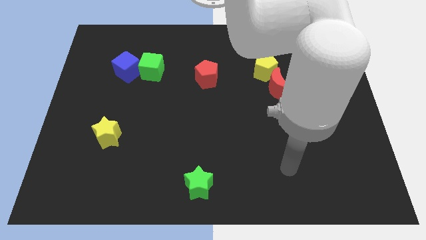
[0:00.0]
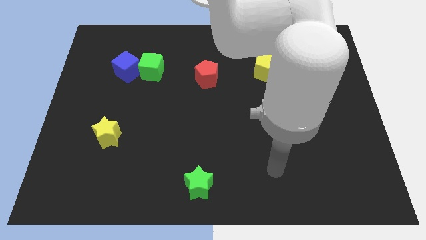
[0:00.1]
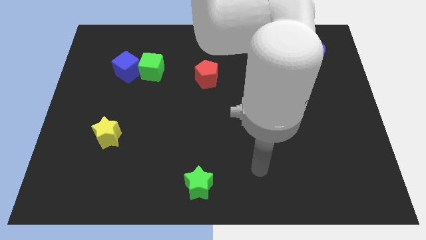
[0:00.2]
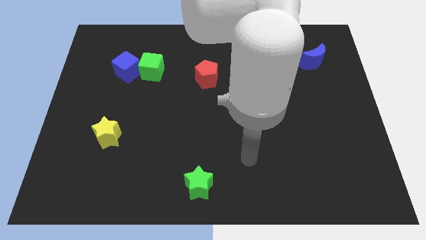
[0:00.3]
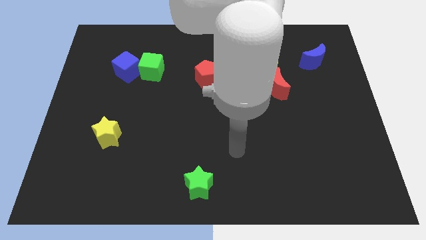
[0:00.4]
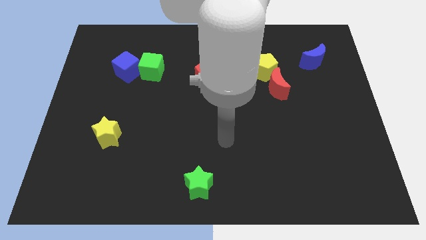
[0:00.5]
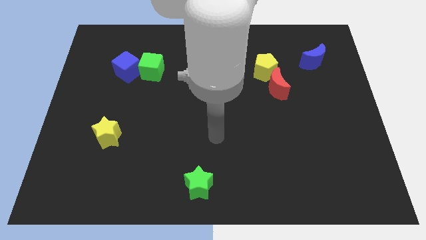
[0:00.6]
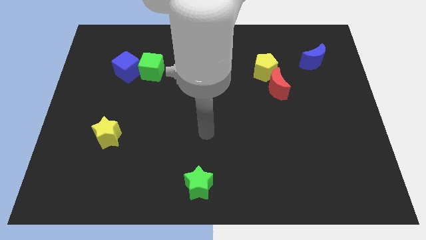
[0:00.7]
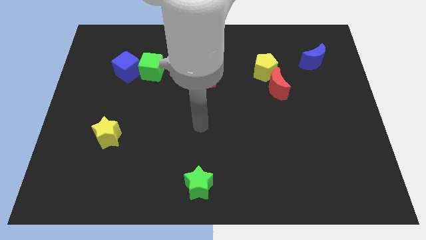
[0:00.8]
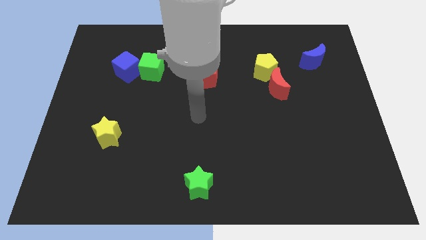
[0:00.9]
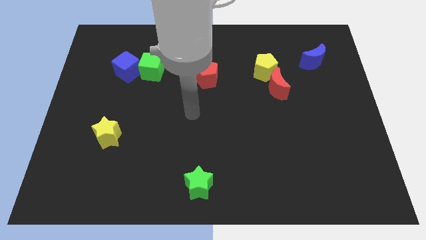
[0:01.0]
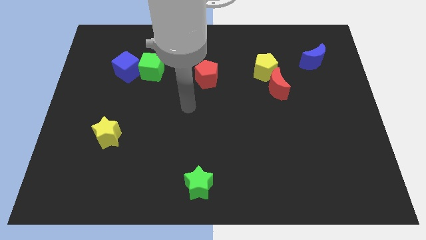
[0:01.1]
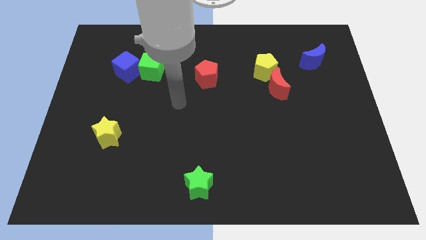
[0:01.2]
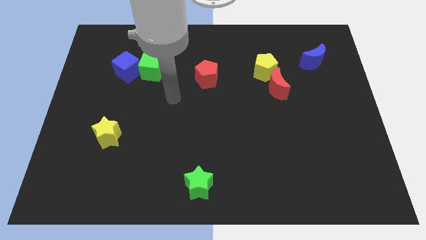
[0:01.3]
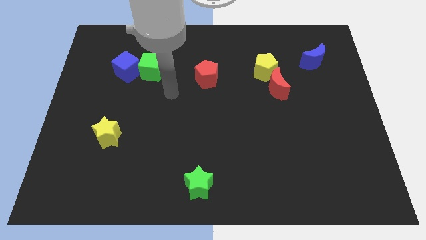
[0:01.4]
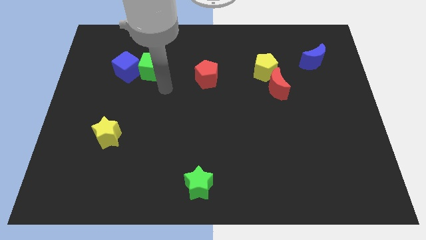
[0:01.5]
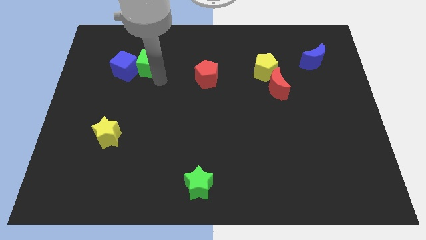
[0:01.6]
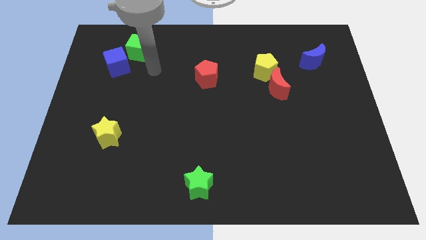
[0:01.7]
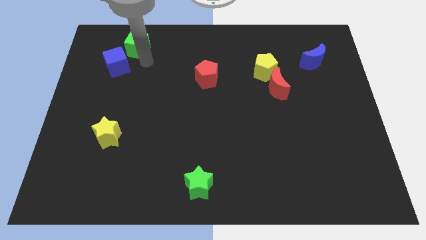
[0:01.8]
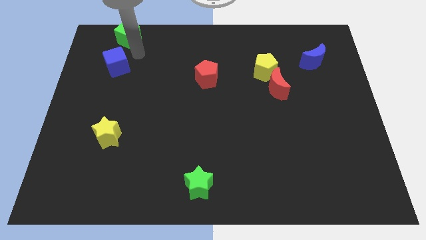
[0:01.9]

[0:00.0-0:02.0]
move the blue cube away from the green cube

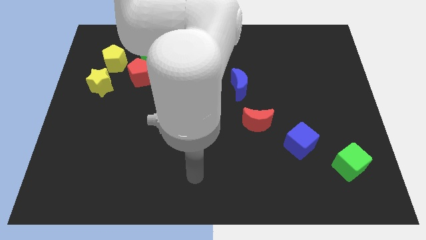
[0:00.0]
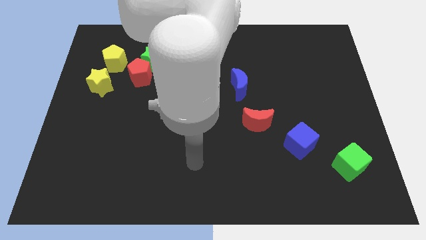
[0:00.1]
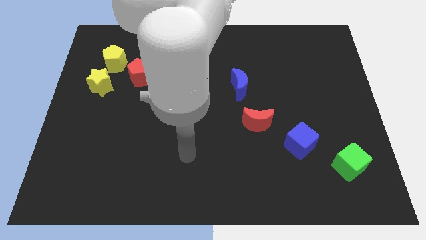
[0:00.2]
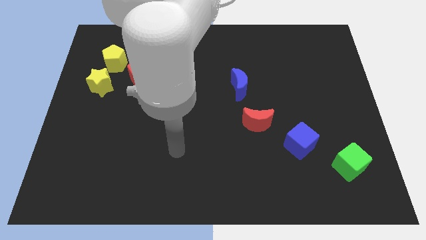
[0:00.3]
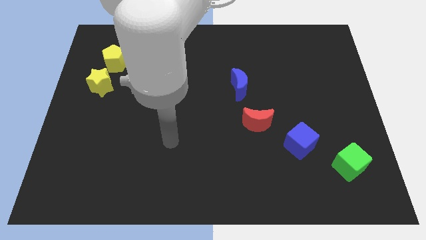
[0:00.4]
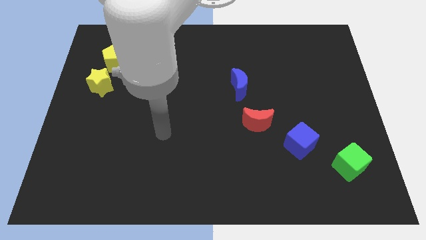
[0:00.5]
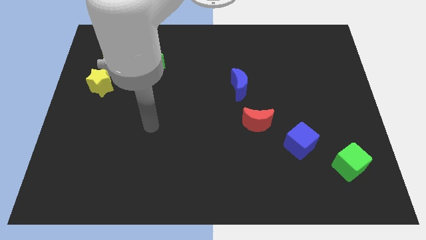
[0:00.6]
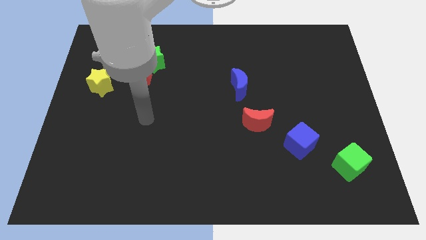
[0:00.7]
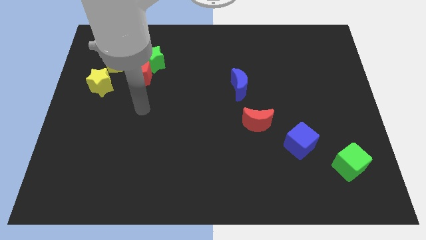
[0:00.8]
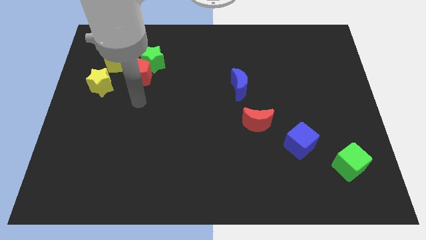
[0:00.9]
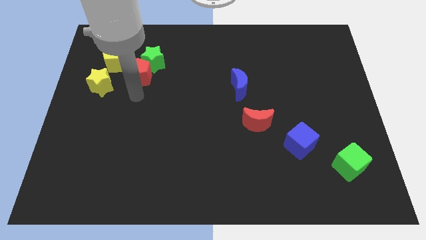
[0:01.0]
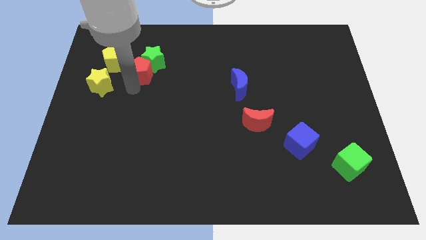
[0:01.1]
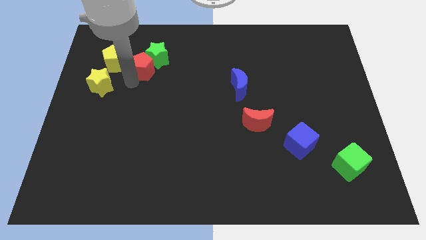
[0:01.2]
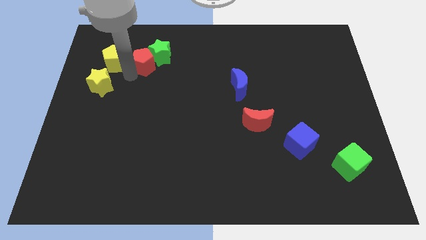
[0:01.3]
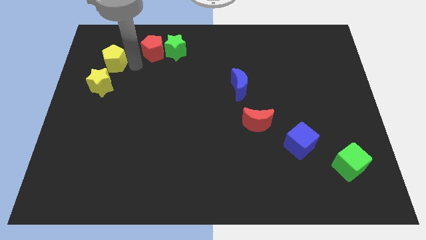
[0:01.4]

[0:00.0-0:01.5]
move the green star away from the red pentagon and yellow pentagon

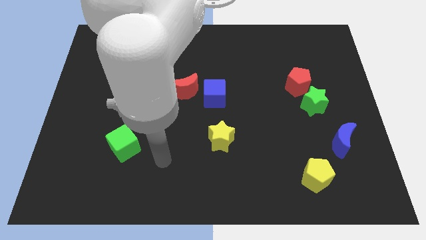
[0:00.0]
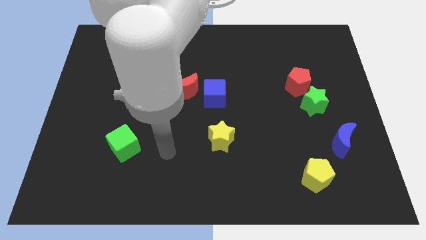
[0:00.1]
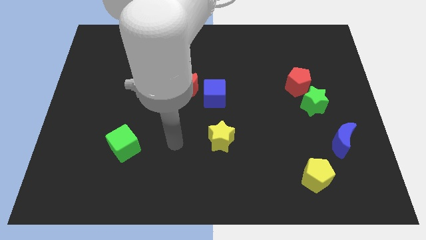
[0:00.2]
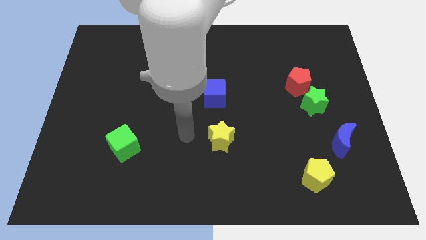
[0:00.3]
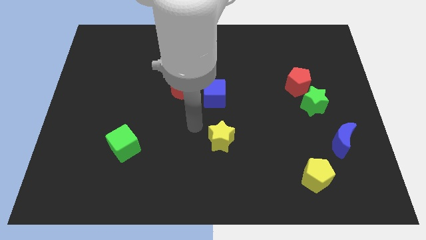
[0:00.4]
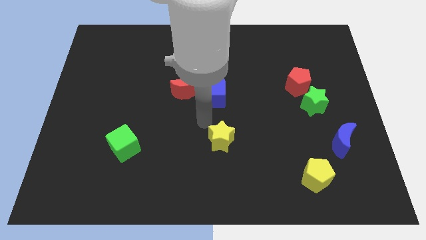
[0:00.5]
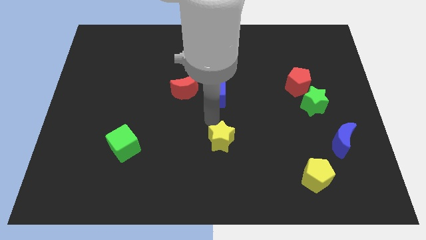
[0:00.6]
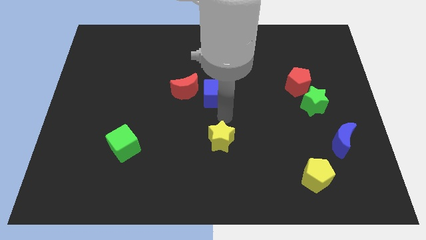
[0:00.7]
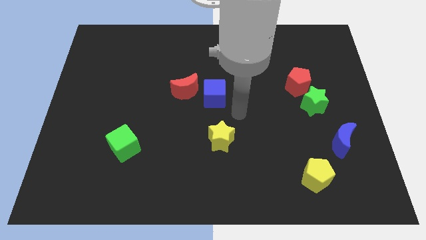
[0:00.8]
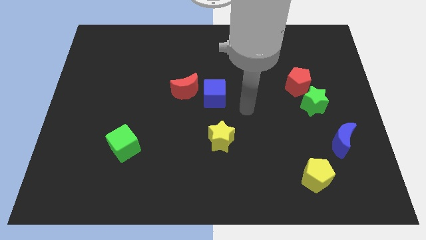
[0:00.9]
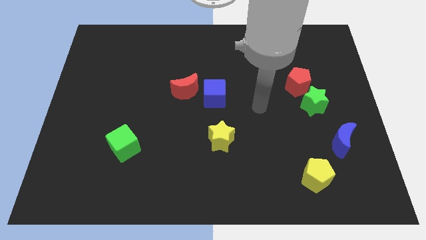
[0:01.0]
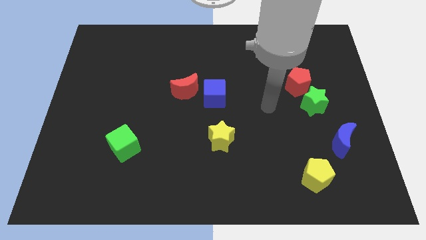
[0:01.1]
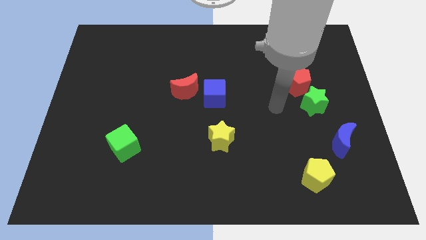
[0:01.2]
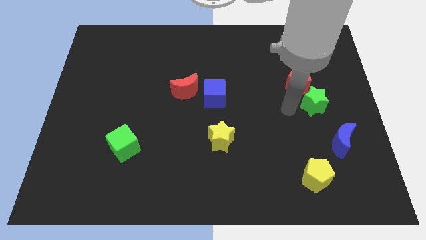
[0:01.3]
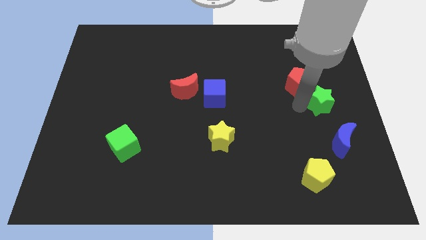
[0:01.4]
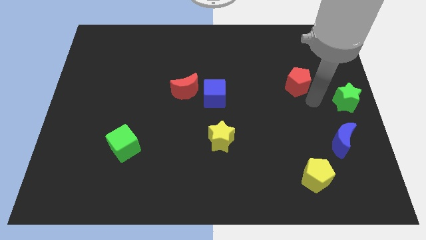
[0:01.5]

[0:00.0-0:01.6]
move the red pentagon away from the green star

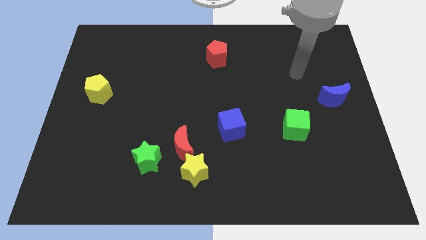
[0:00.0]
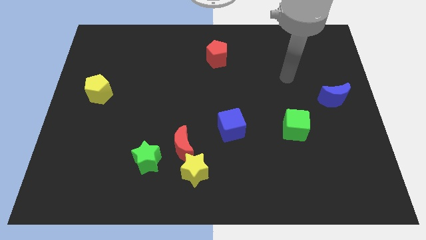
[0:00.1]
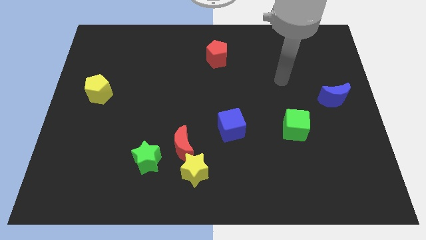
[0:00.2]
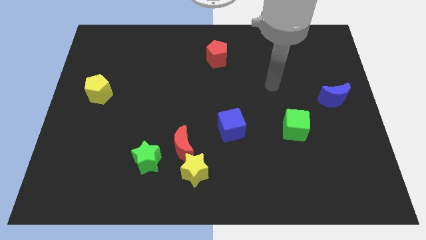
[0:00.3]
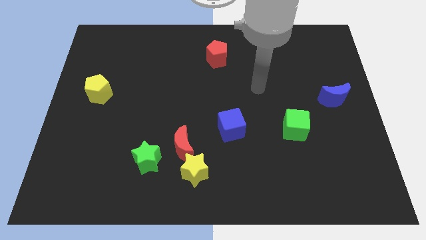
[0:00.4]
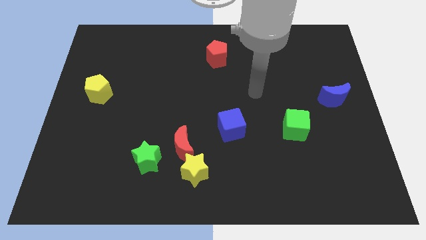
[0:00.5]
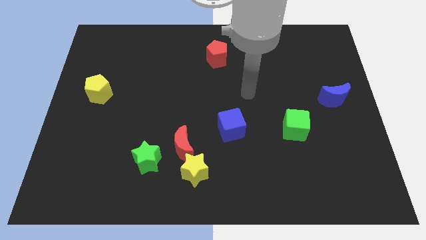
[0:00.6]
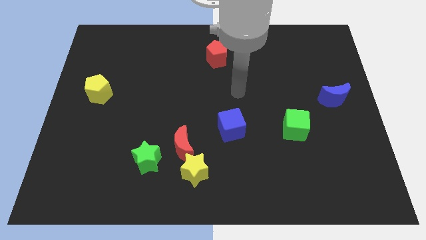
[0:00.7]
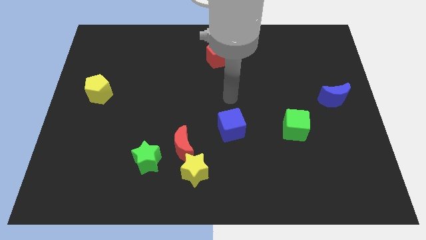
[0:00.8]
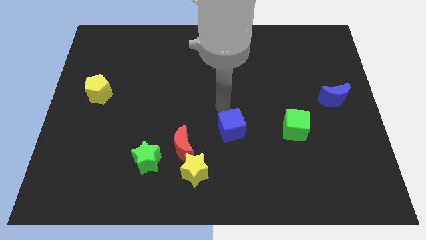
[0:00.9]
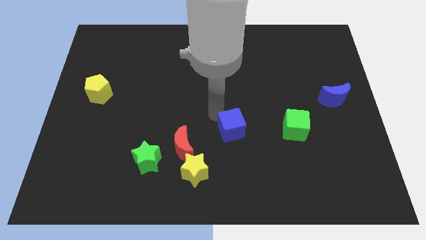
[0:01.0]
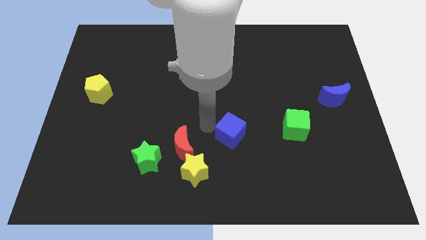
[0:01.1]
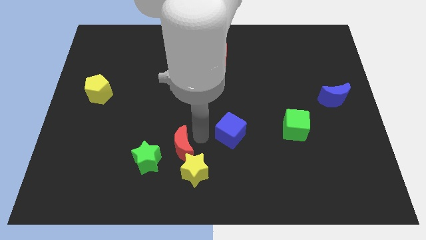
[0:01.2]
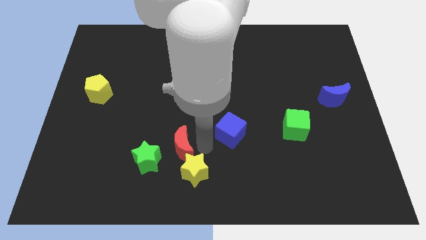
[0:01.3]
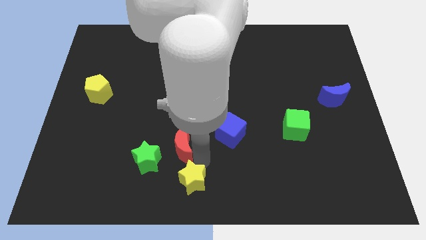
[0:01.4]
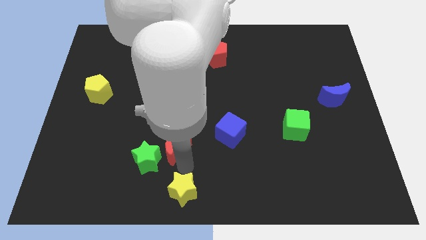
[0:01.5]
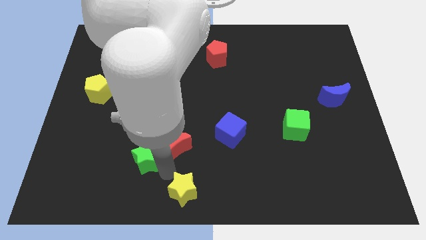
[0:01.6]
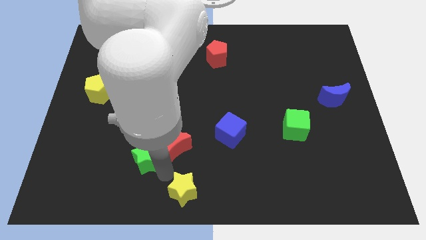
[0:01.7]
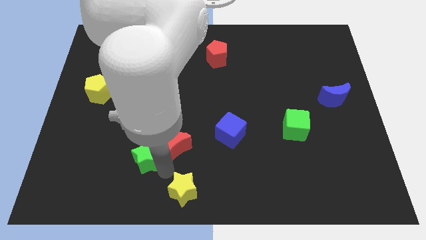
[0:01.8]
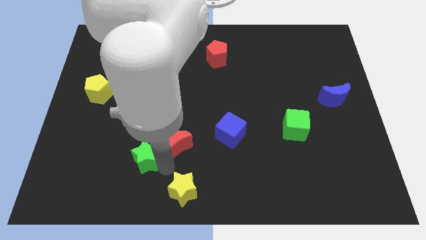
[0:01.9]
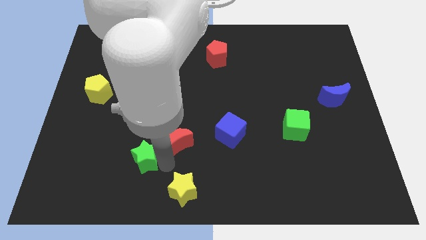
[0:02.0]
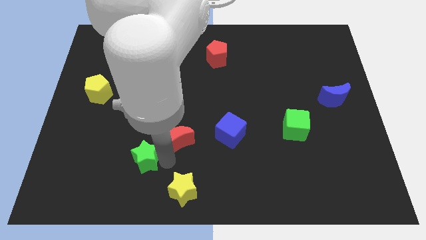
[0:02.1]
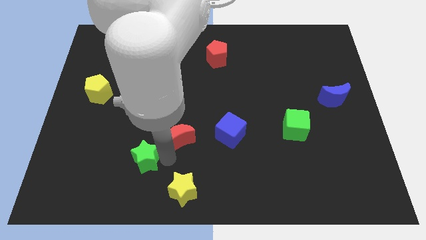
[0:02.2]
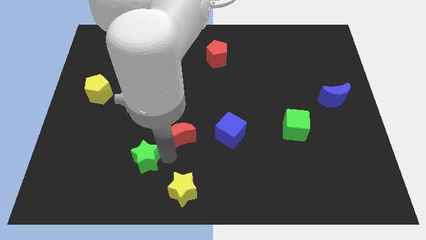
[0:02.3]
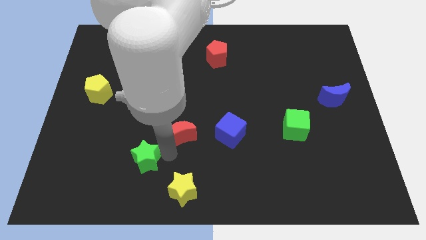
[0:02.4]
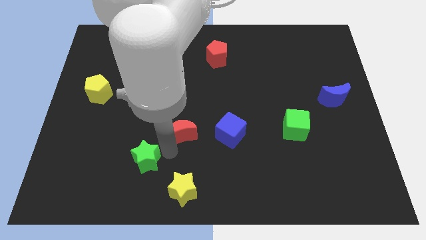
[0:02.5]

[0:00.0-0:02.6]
move the red moon away from the yellow star and green star

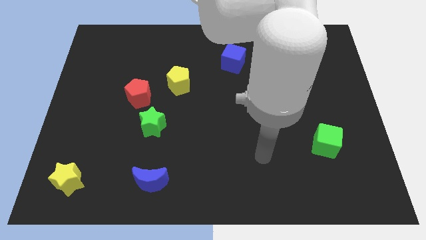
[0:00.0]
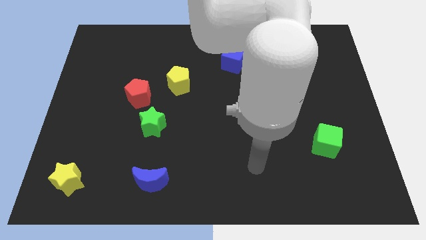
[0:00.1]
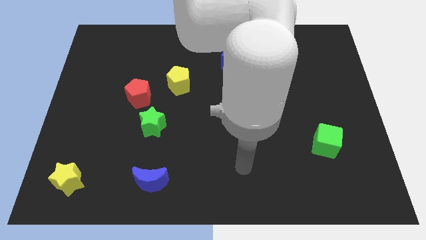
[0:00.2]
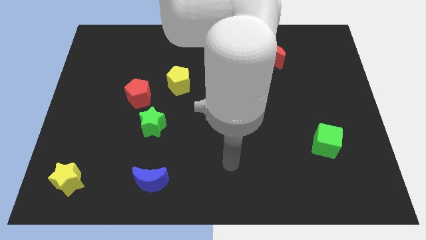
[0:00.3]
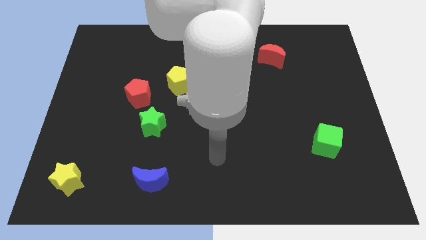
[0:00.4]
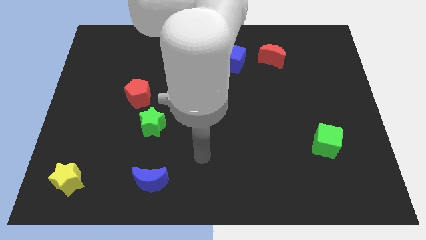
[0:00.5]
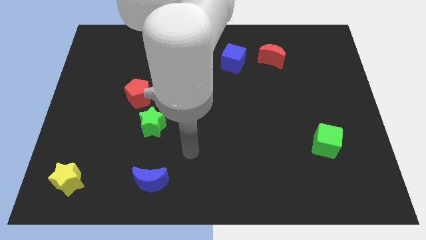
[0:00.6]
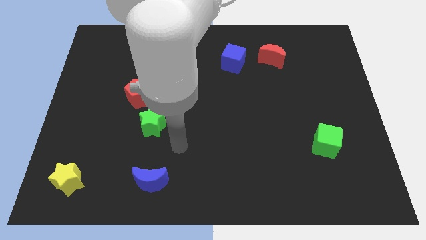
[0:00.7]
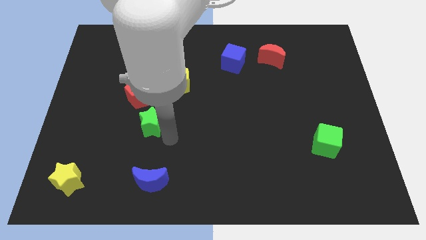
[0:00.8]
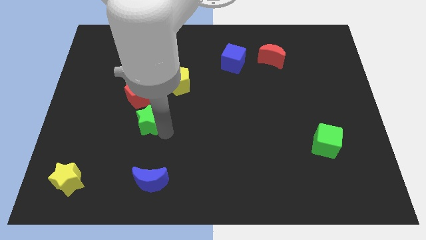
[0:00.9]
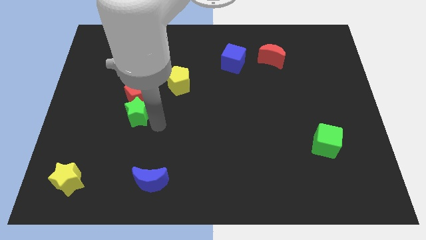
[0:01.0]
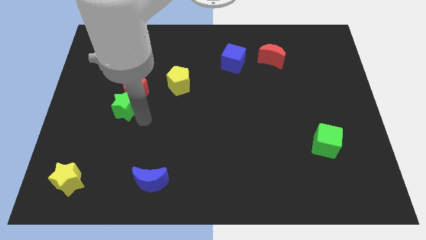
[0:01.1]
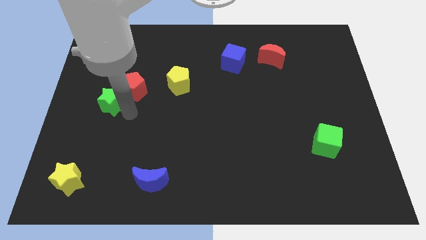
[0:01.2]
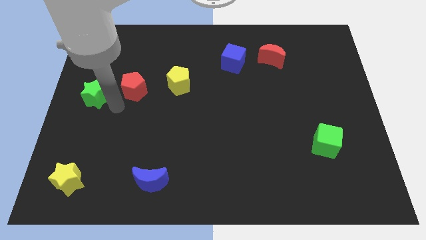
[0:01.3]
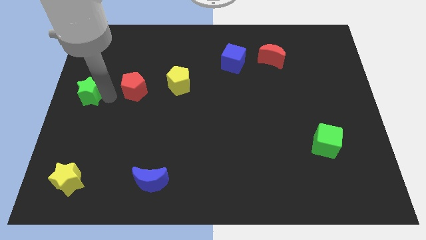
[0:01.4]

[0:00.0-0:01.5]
pull the red pentagon apart from the green star
